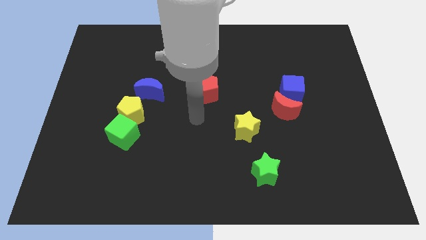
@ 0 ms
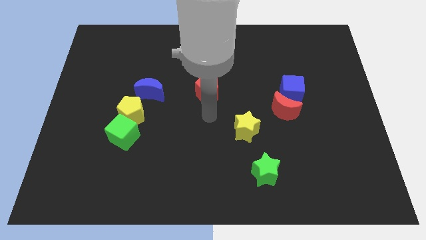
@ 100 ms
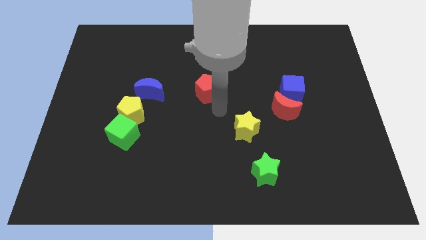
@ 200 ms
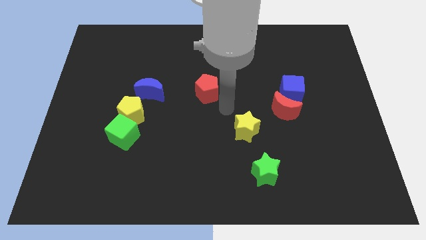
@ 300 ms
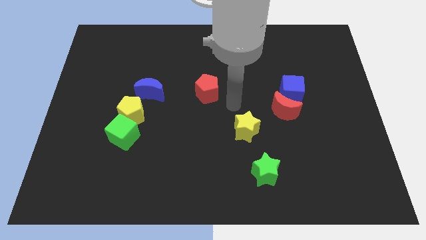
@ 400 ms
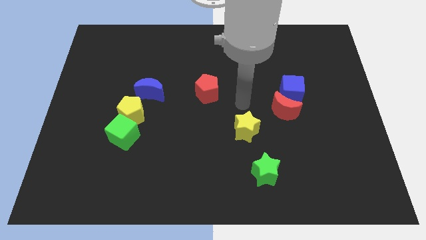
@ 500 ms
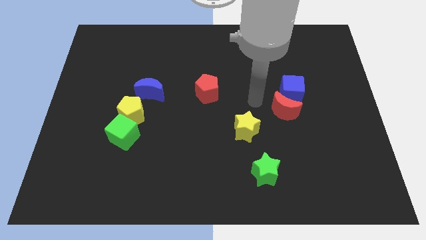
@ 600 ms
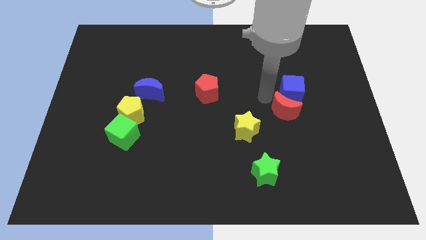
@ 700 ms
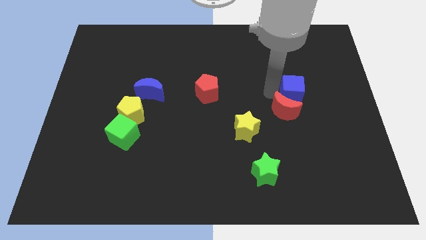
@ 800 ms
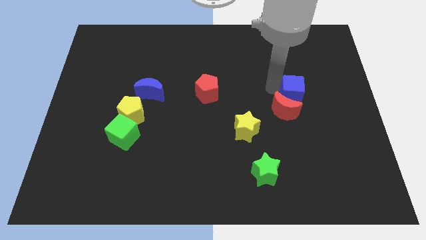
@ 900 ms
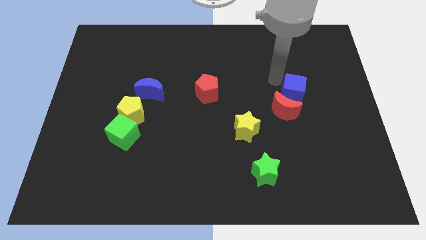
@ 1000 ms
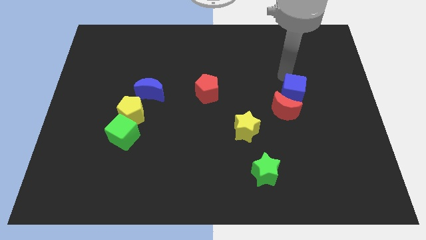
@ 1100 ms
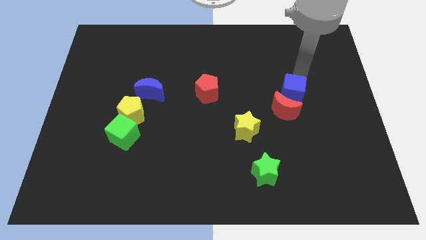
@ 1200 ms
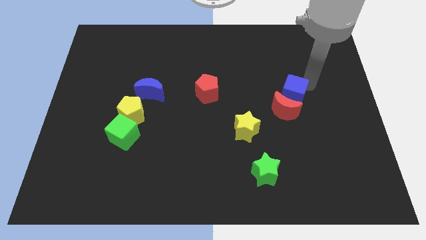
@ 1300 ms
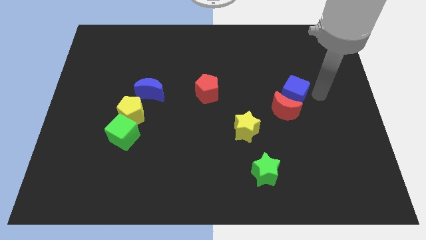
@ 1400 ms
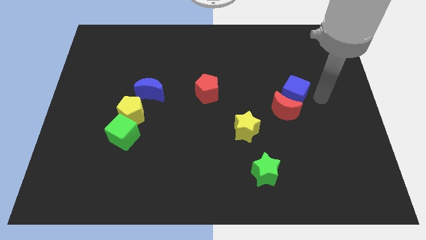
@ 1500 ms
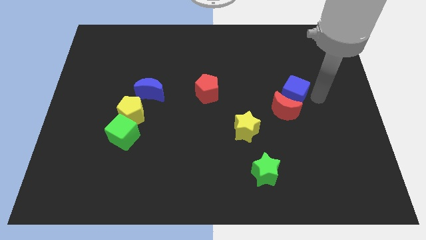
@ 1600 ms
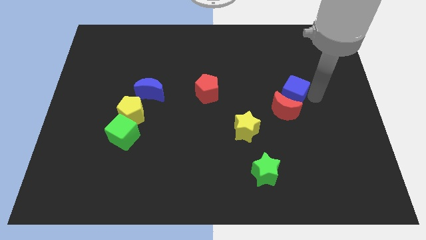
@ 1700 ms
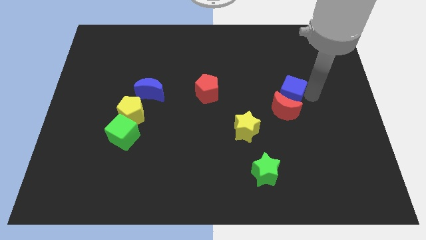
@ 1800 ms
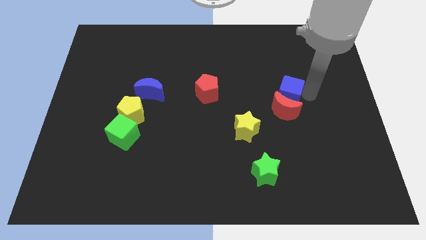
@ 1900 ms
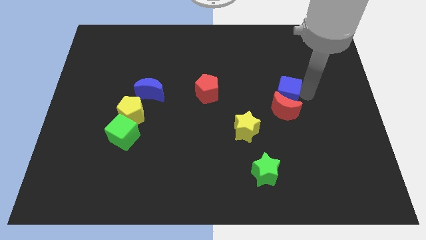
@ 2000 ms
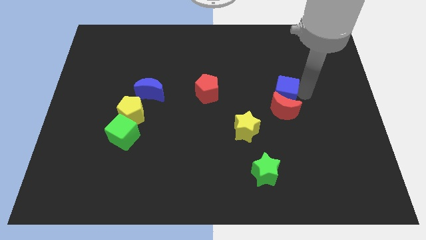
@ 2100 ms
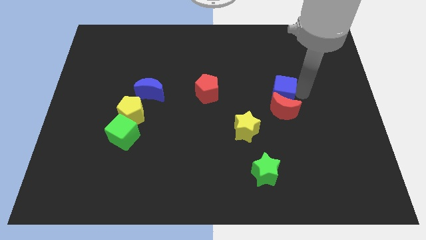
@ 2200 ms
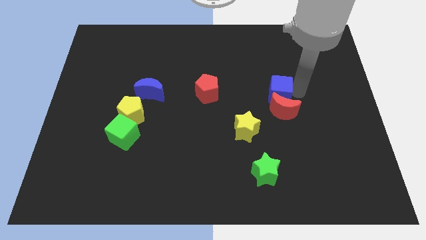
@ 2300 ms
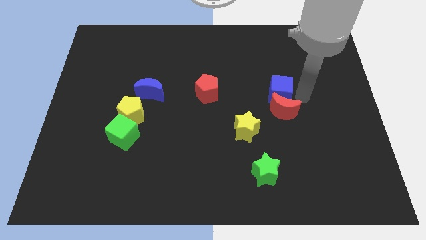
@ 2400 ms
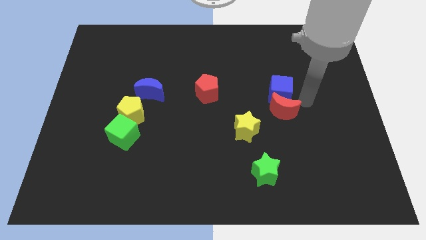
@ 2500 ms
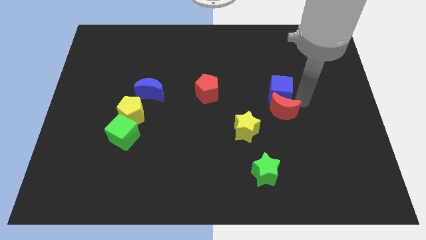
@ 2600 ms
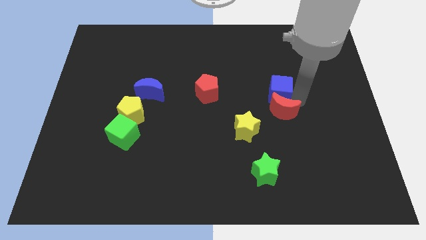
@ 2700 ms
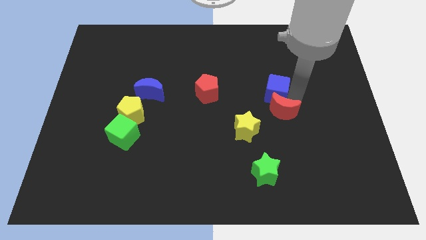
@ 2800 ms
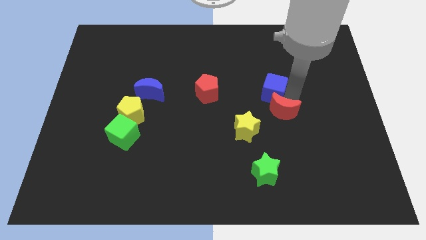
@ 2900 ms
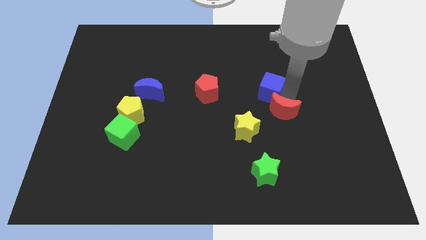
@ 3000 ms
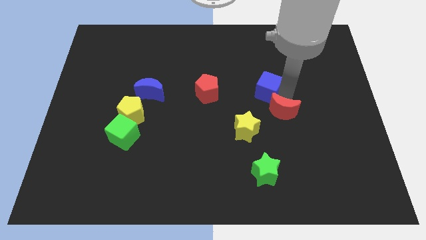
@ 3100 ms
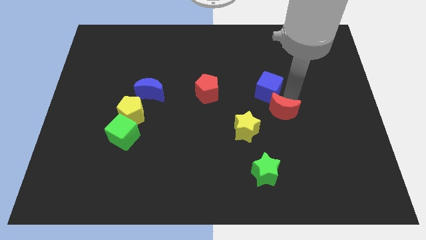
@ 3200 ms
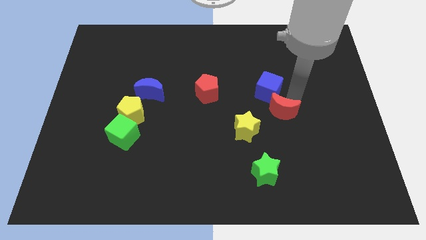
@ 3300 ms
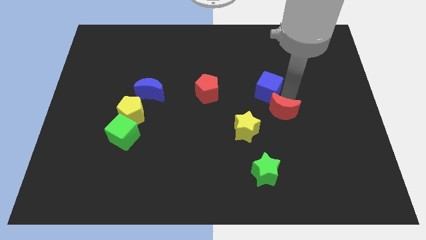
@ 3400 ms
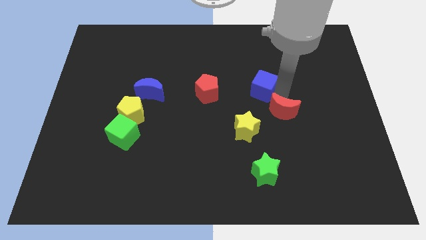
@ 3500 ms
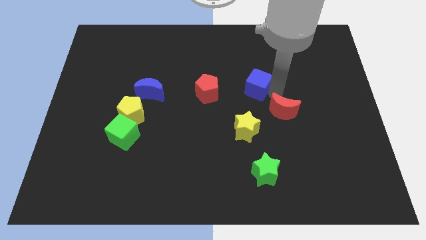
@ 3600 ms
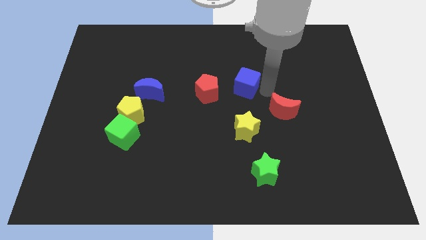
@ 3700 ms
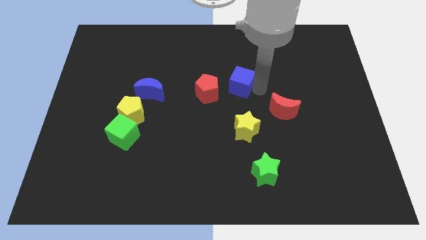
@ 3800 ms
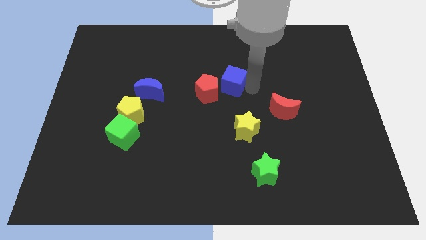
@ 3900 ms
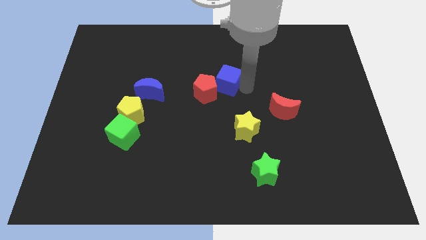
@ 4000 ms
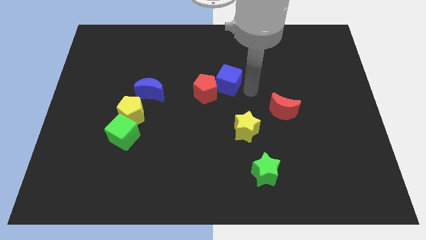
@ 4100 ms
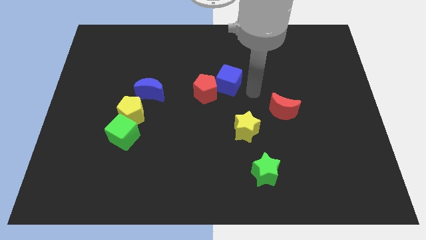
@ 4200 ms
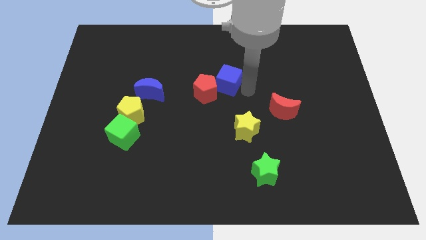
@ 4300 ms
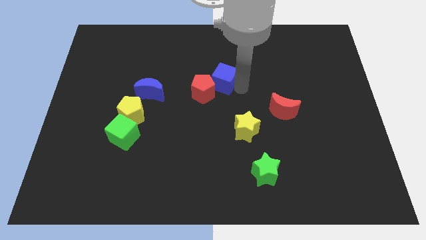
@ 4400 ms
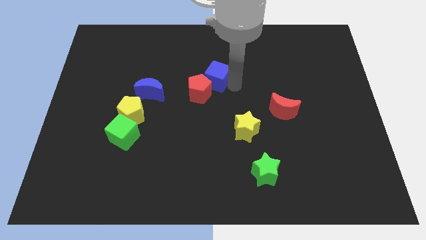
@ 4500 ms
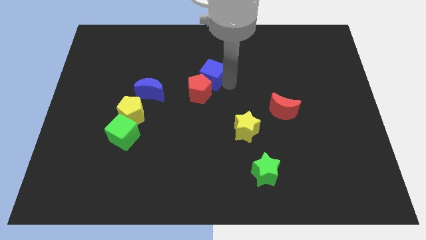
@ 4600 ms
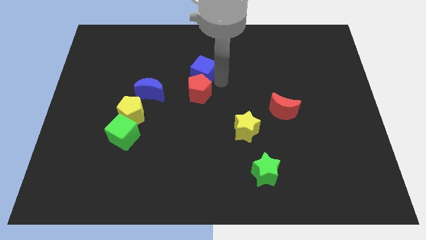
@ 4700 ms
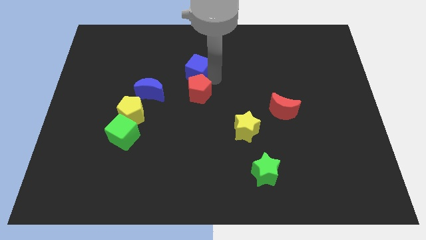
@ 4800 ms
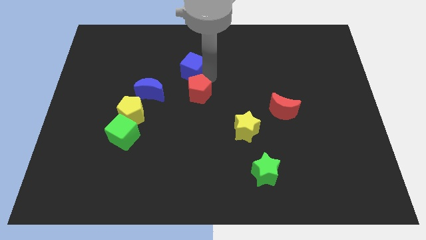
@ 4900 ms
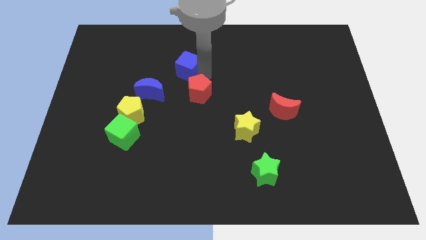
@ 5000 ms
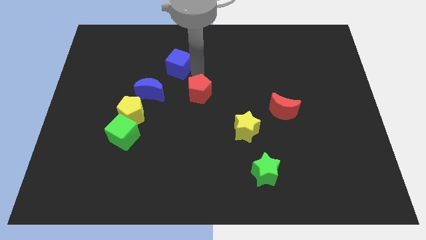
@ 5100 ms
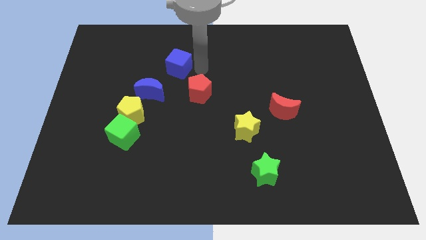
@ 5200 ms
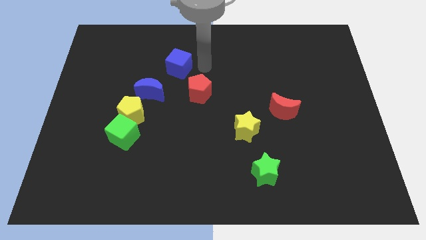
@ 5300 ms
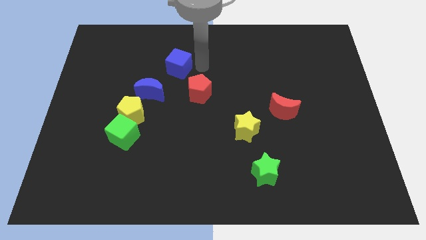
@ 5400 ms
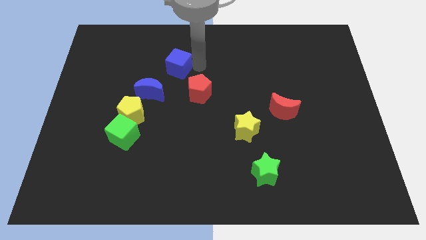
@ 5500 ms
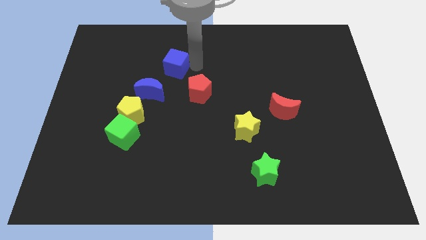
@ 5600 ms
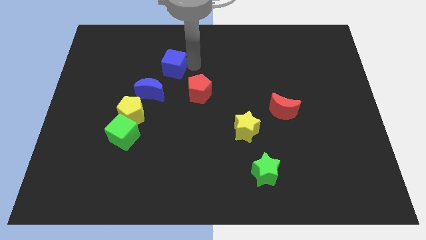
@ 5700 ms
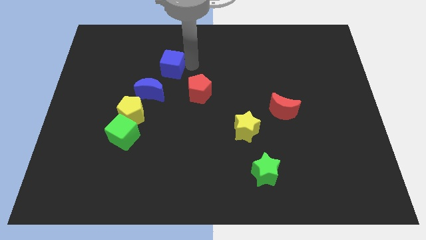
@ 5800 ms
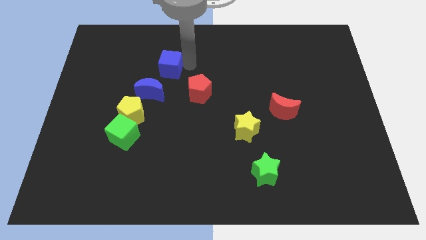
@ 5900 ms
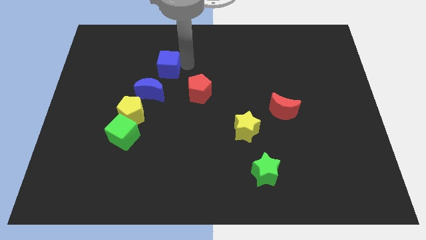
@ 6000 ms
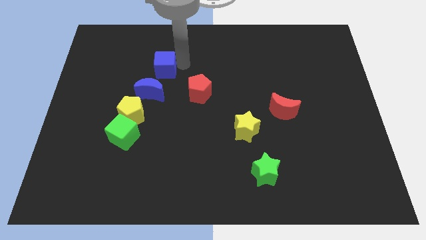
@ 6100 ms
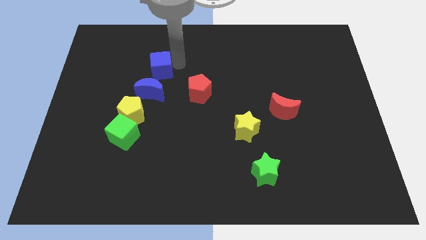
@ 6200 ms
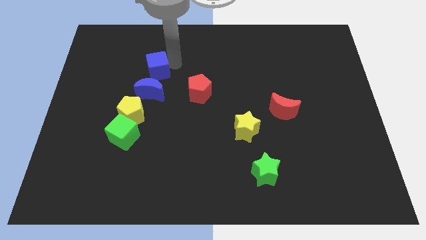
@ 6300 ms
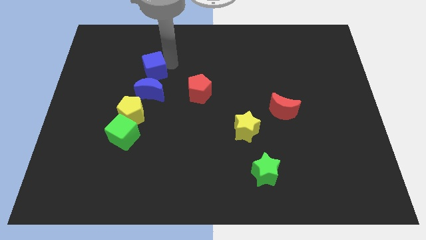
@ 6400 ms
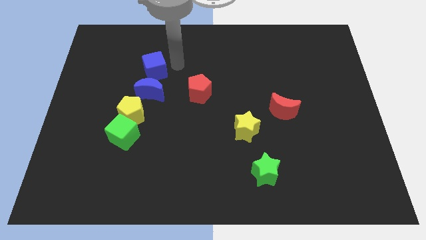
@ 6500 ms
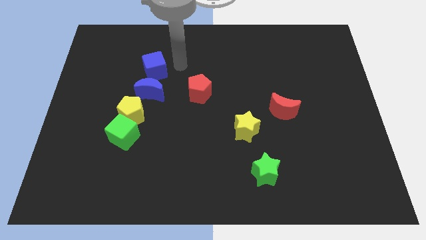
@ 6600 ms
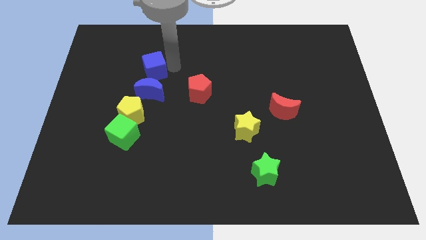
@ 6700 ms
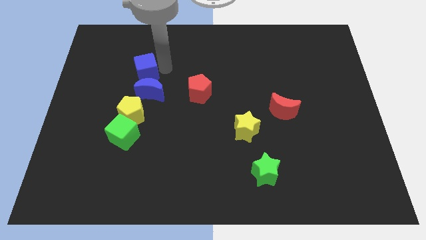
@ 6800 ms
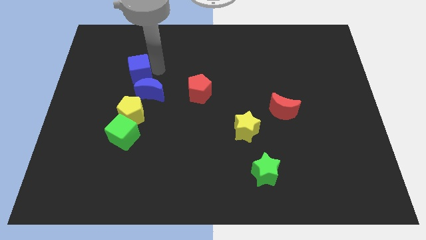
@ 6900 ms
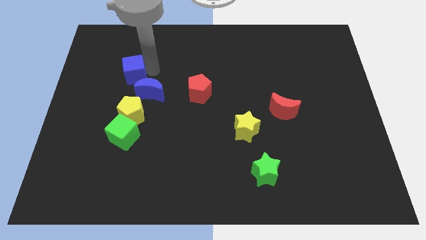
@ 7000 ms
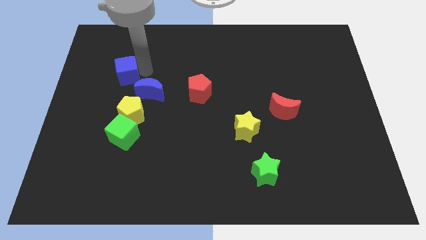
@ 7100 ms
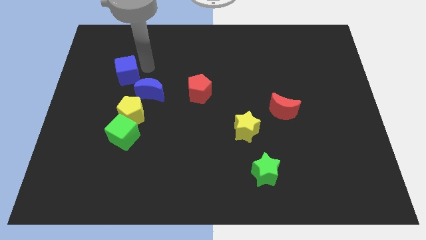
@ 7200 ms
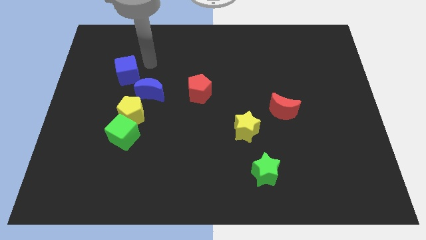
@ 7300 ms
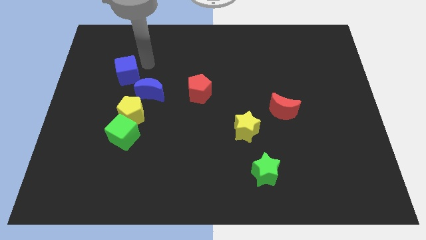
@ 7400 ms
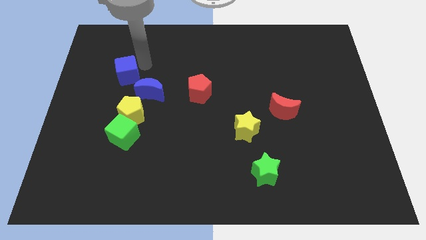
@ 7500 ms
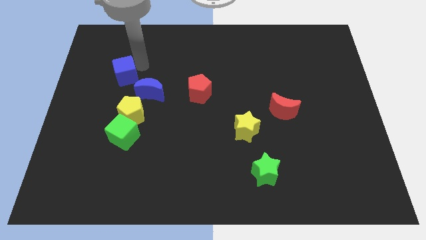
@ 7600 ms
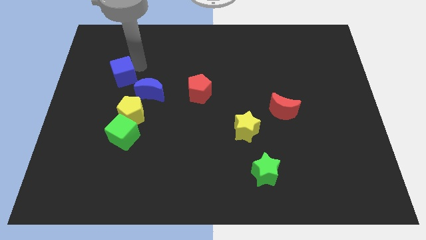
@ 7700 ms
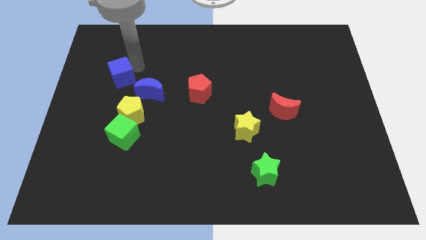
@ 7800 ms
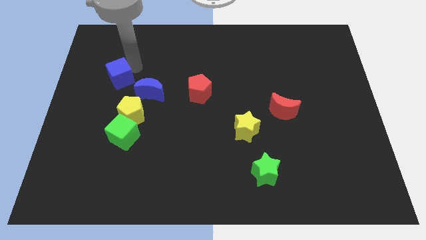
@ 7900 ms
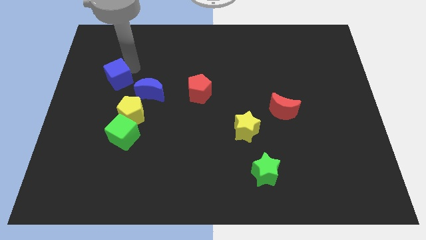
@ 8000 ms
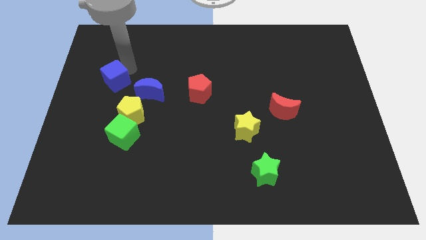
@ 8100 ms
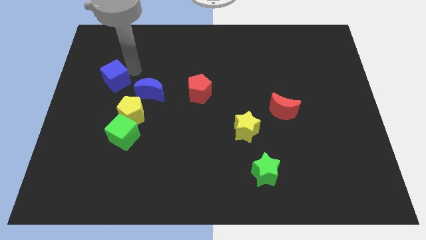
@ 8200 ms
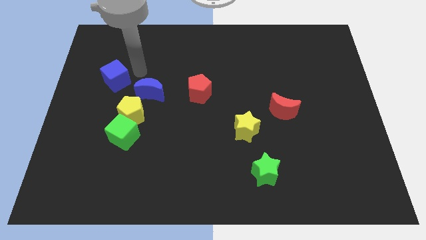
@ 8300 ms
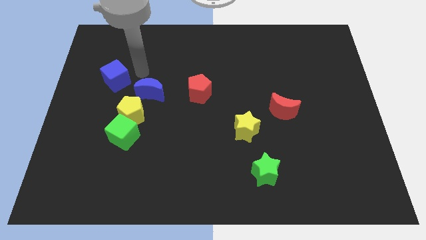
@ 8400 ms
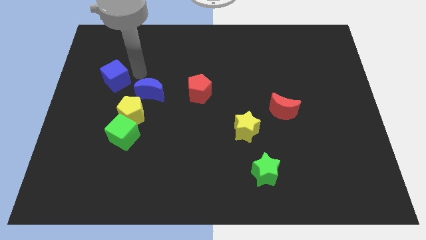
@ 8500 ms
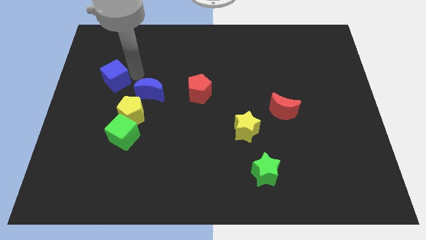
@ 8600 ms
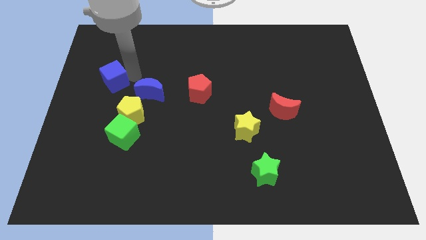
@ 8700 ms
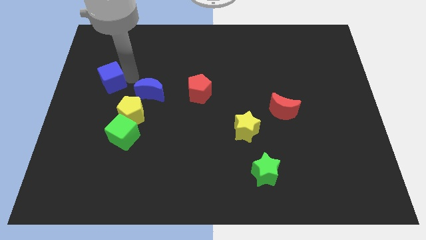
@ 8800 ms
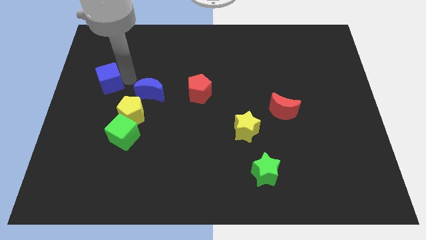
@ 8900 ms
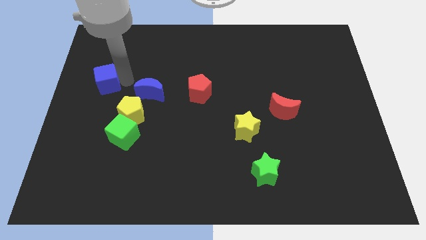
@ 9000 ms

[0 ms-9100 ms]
slide the blue cube to the center left
